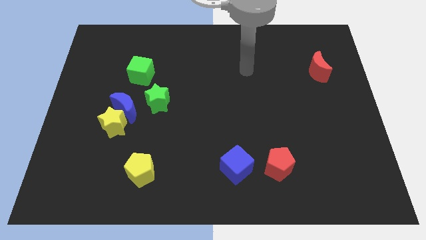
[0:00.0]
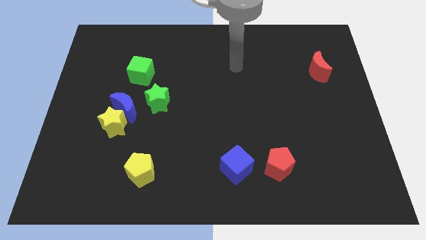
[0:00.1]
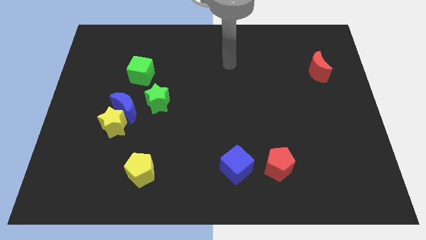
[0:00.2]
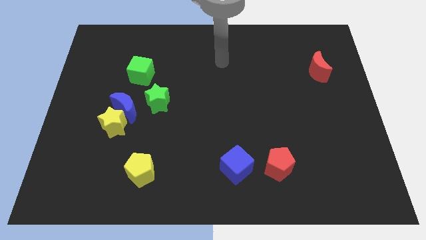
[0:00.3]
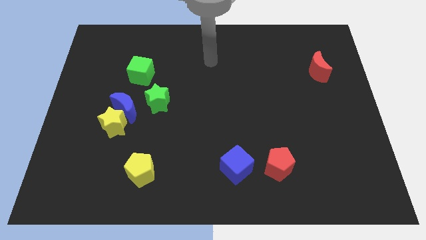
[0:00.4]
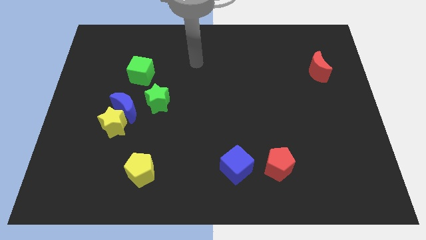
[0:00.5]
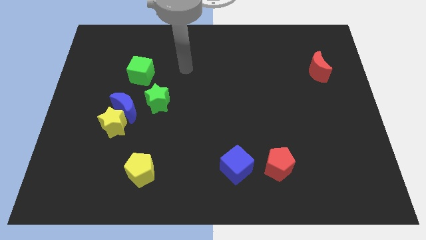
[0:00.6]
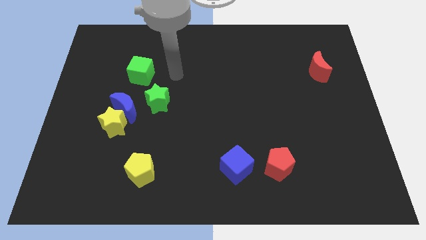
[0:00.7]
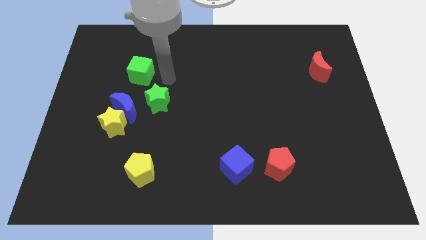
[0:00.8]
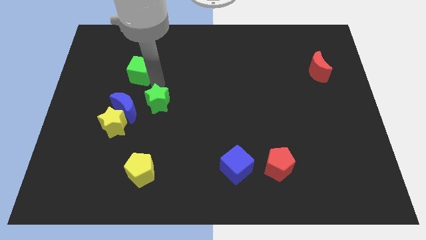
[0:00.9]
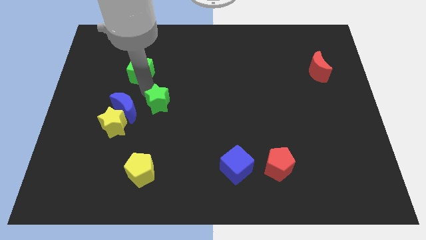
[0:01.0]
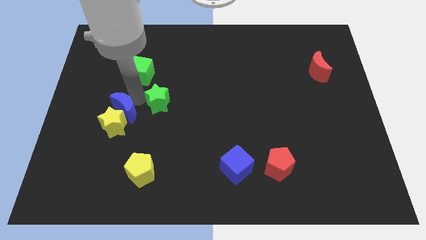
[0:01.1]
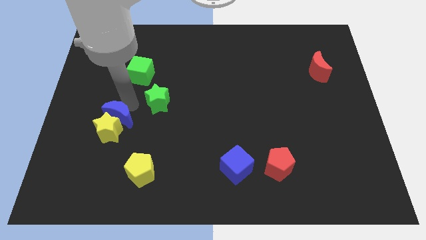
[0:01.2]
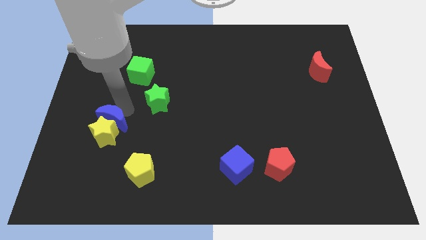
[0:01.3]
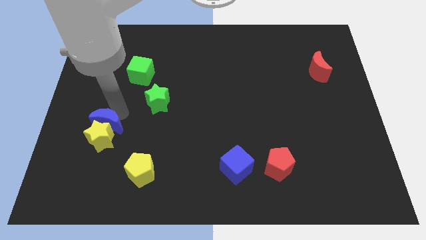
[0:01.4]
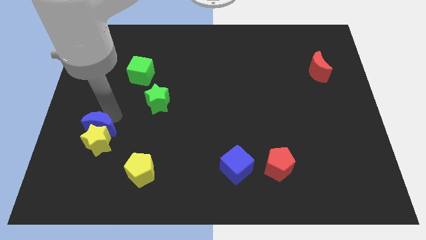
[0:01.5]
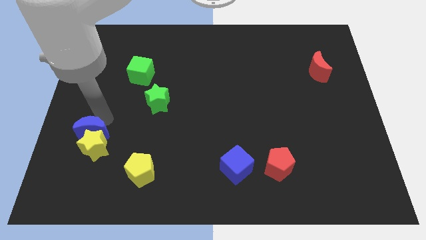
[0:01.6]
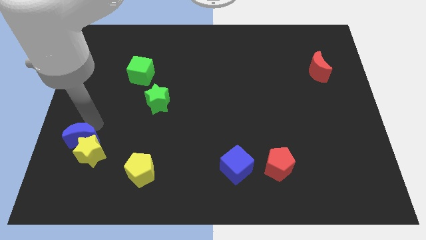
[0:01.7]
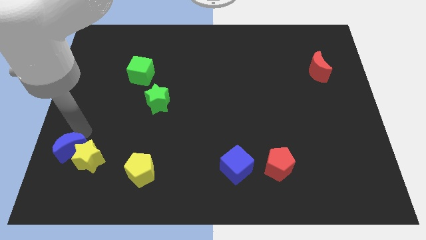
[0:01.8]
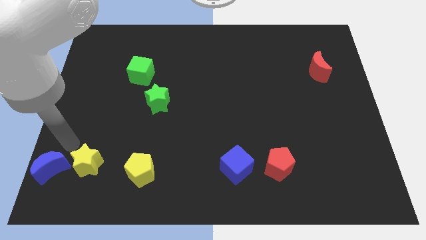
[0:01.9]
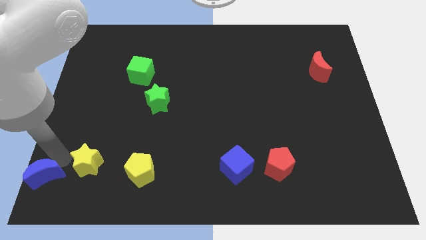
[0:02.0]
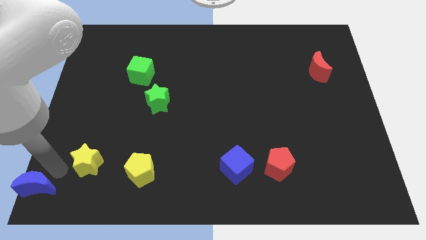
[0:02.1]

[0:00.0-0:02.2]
separate the yellow star from the blue moon

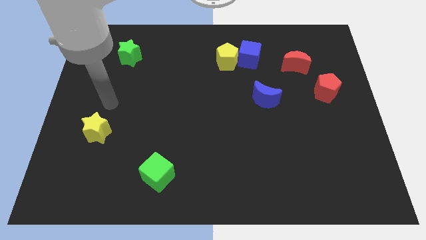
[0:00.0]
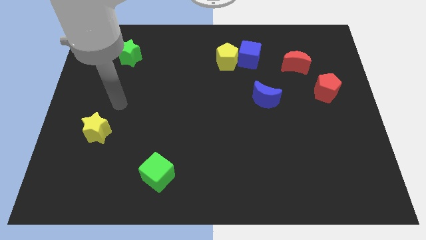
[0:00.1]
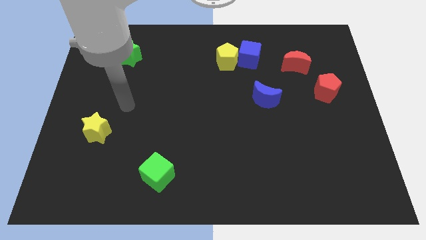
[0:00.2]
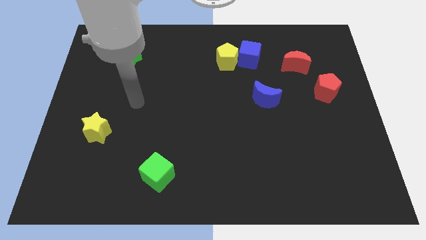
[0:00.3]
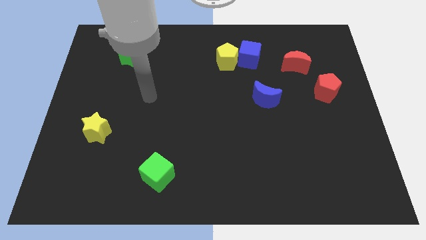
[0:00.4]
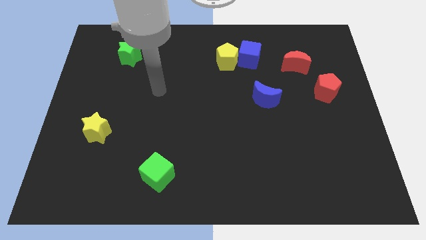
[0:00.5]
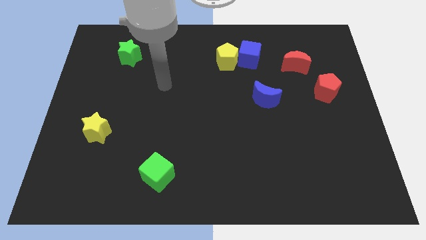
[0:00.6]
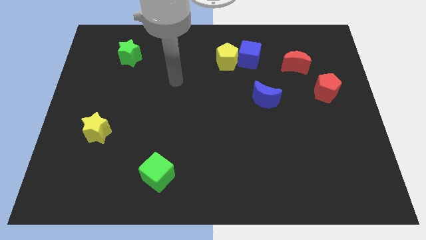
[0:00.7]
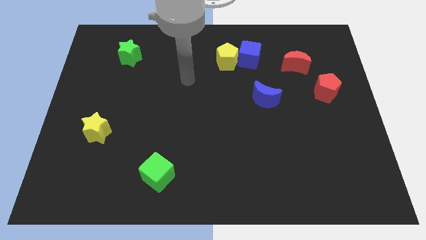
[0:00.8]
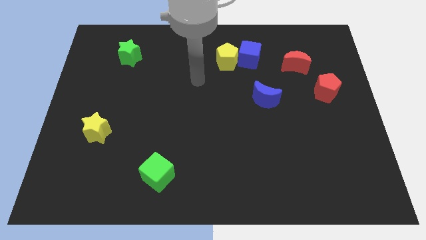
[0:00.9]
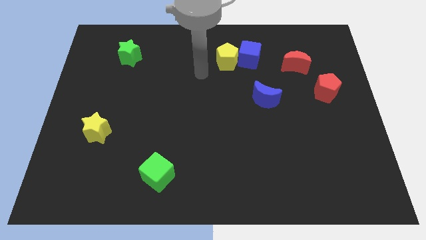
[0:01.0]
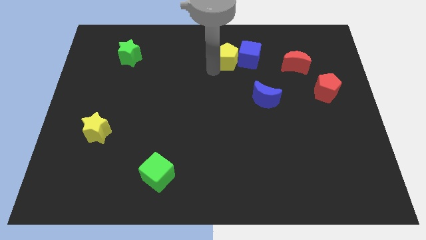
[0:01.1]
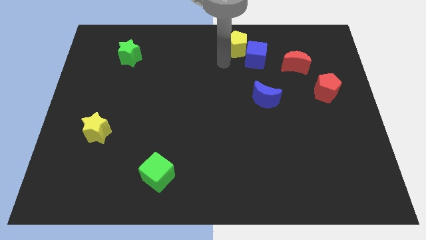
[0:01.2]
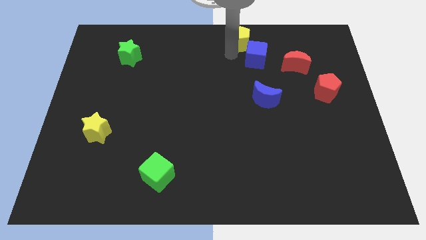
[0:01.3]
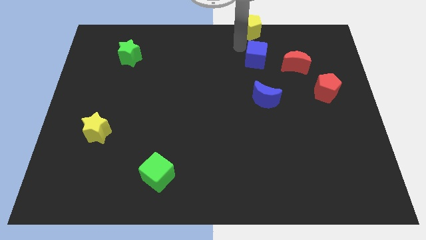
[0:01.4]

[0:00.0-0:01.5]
pull the blue cube apart from the yellow pentagon

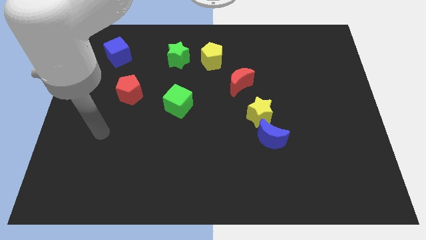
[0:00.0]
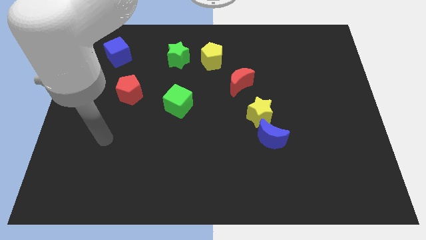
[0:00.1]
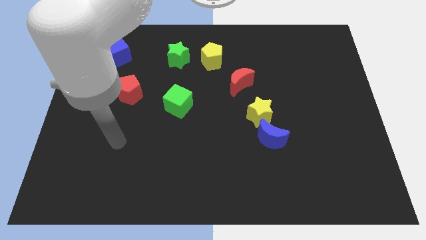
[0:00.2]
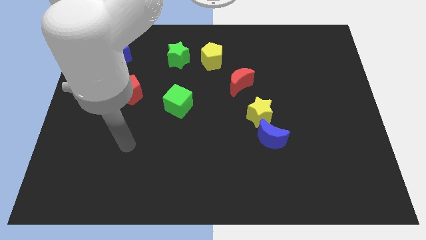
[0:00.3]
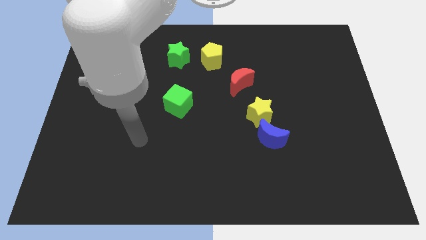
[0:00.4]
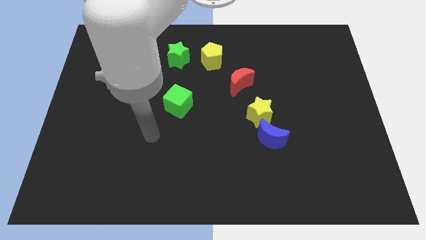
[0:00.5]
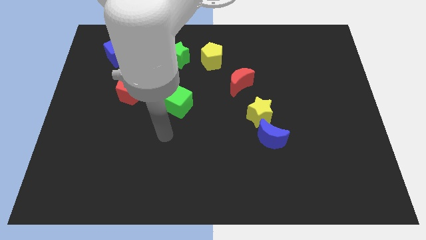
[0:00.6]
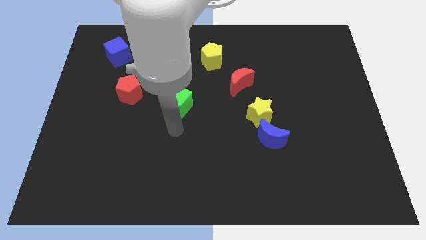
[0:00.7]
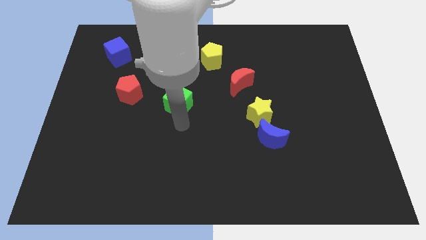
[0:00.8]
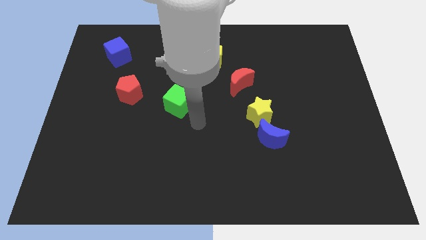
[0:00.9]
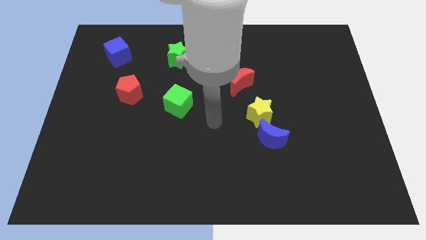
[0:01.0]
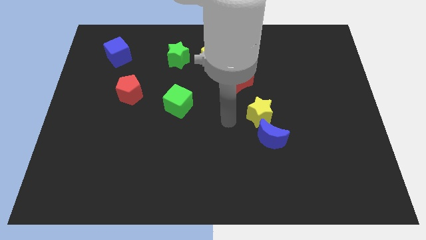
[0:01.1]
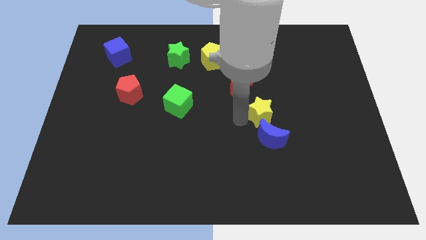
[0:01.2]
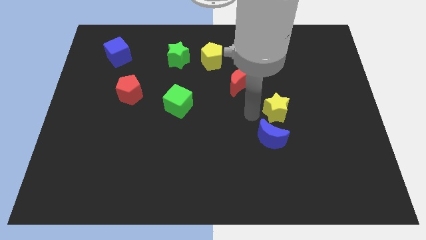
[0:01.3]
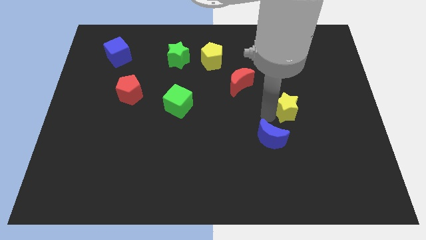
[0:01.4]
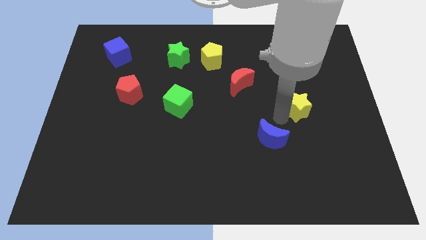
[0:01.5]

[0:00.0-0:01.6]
separate the blue moon from the yellow star

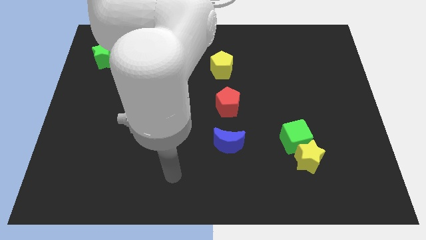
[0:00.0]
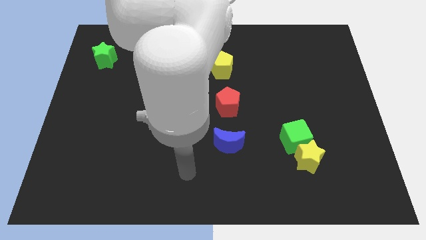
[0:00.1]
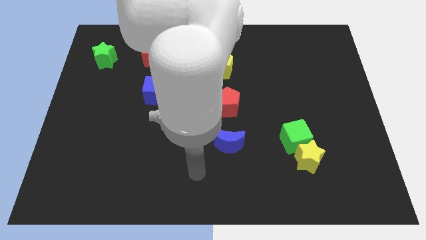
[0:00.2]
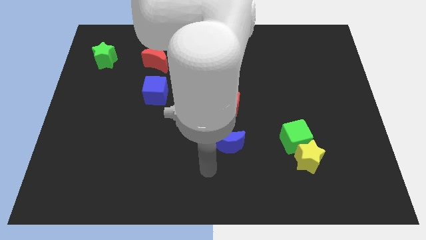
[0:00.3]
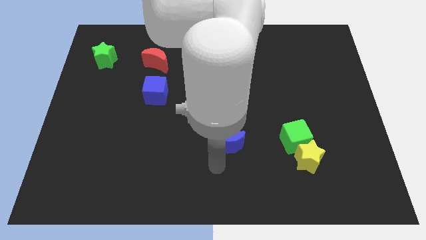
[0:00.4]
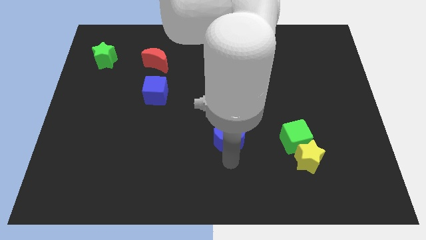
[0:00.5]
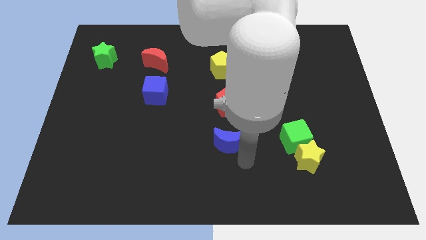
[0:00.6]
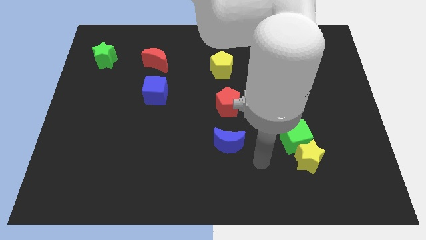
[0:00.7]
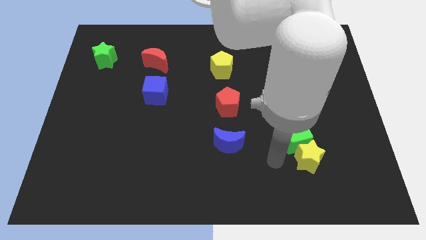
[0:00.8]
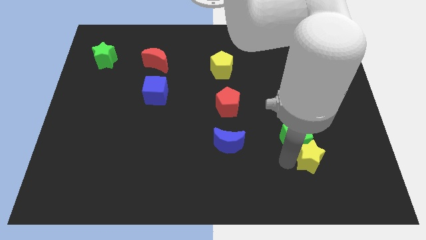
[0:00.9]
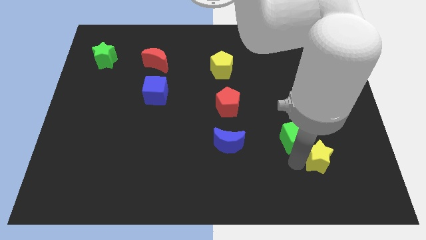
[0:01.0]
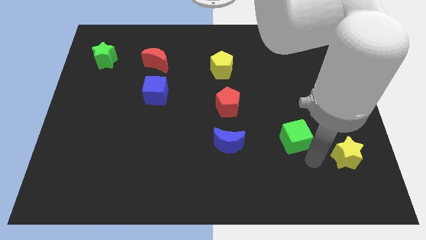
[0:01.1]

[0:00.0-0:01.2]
move the green cube away from the yellow star

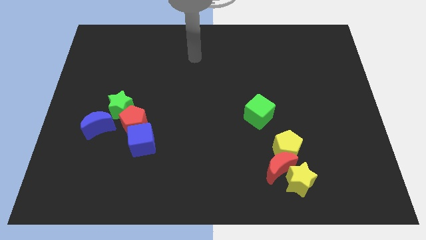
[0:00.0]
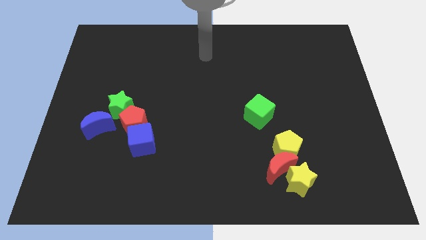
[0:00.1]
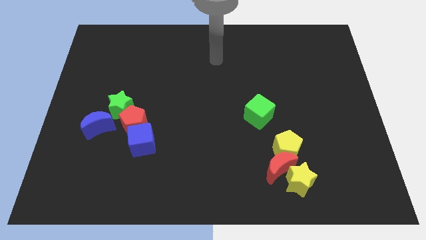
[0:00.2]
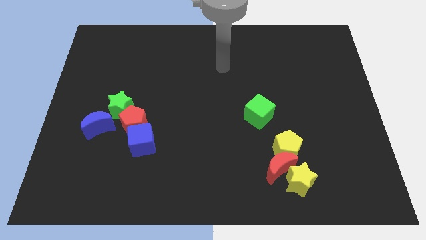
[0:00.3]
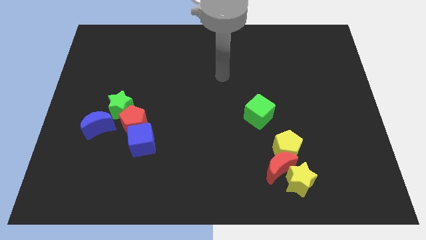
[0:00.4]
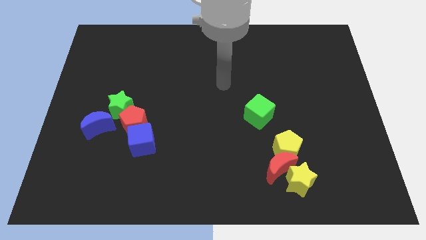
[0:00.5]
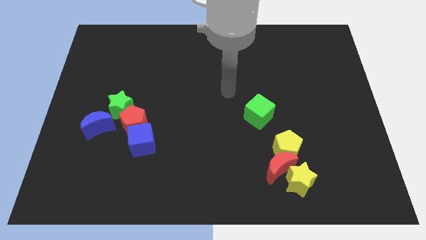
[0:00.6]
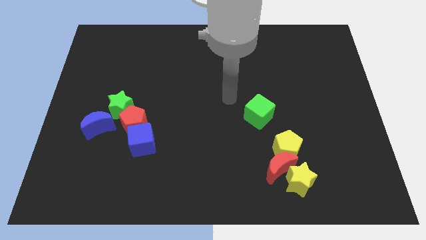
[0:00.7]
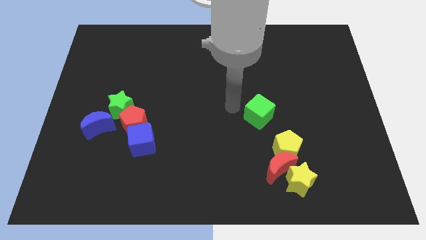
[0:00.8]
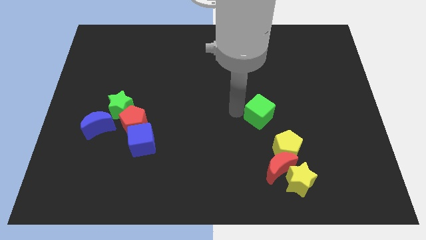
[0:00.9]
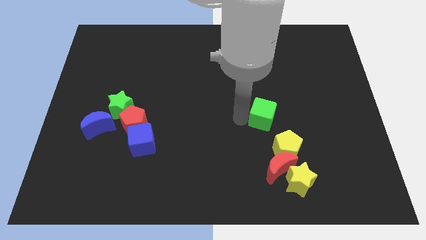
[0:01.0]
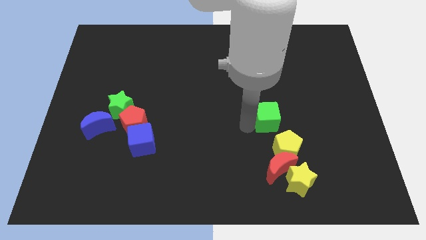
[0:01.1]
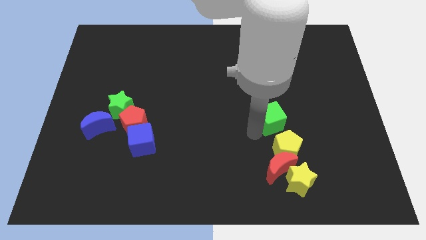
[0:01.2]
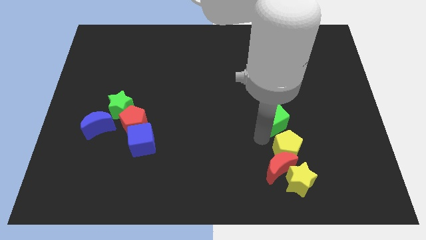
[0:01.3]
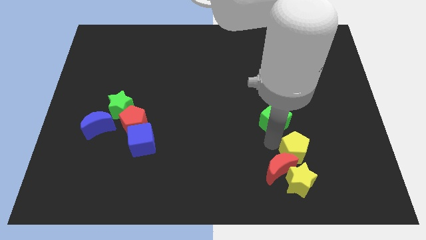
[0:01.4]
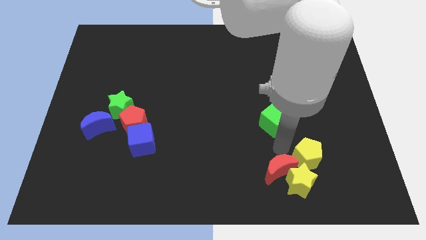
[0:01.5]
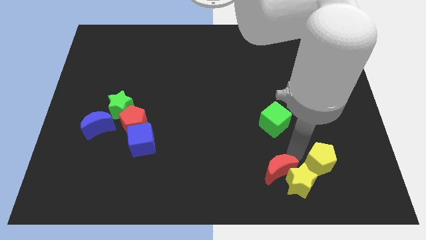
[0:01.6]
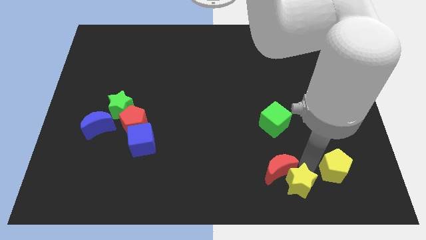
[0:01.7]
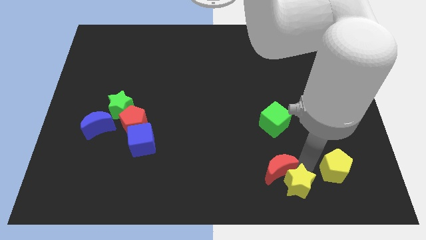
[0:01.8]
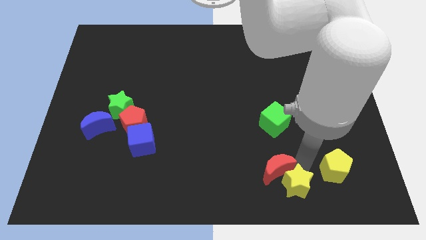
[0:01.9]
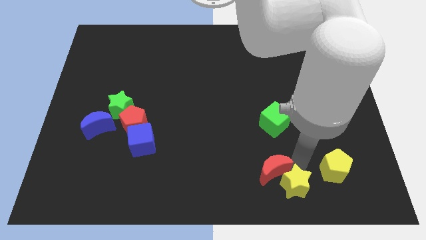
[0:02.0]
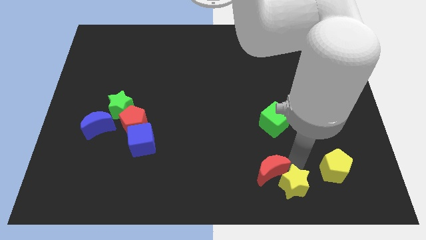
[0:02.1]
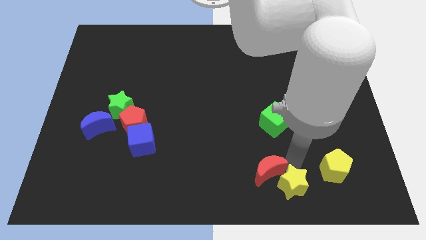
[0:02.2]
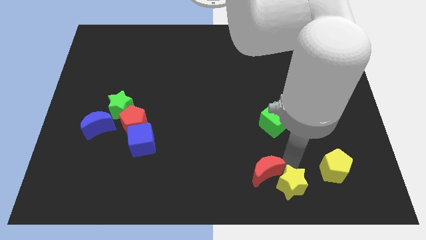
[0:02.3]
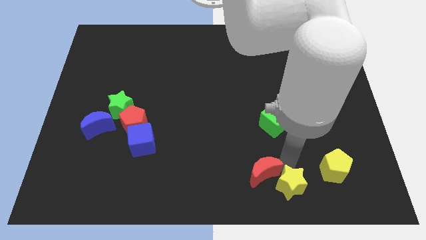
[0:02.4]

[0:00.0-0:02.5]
separate the red moon from the yellow star and yellow pentagon
